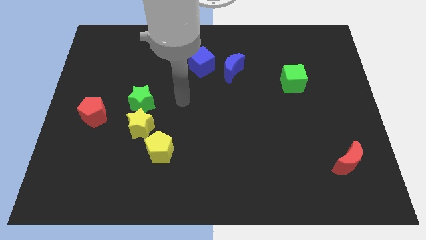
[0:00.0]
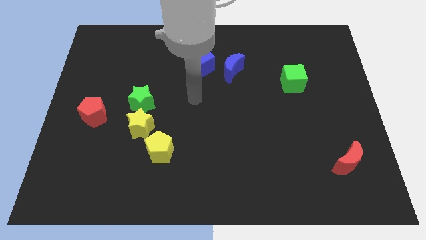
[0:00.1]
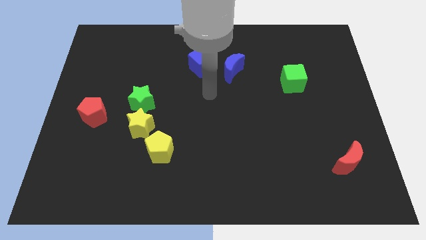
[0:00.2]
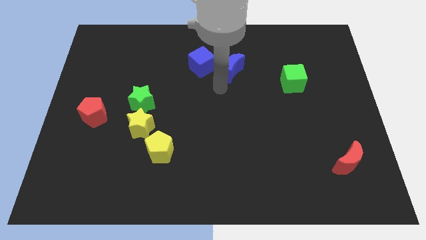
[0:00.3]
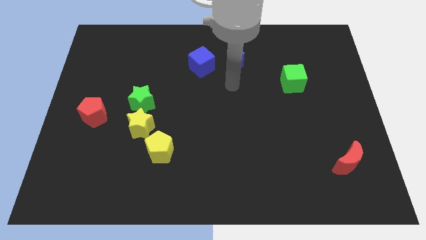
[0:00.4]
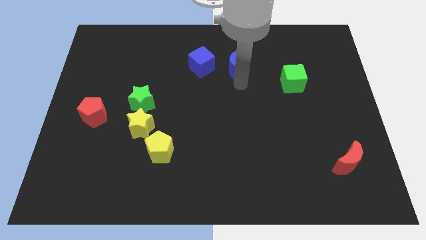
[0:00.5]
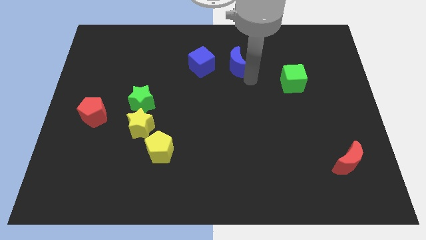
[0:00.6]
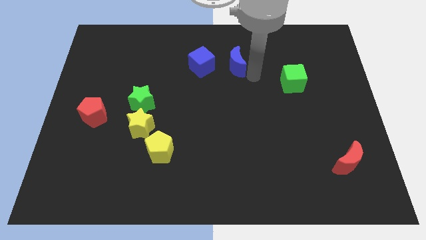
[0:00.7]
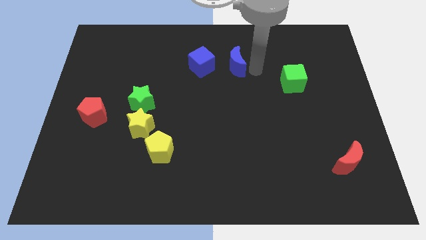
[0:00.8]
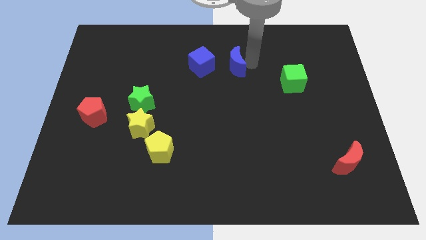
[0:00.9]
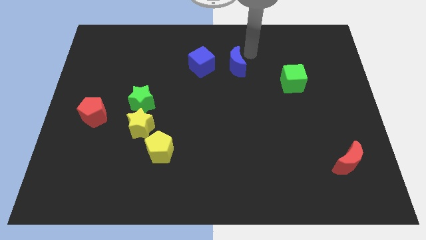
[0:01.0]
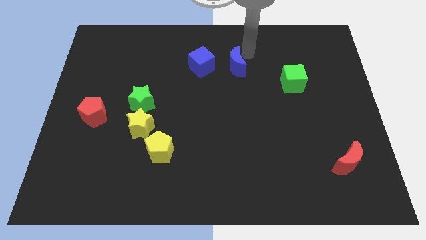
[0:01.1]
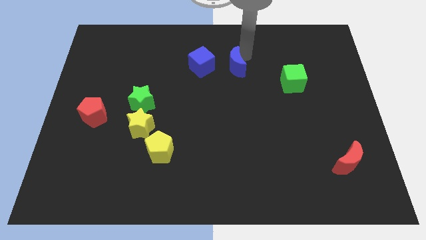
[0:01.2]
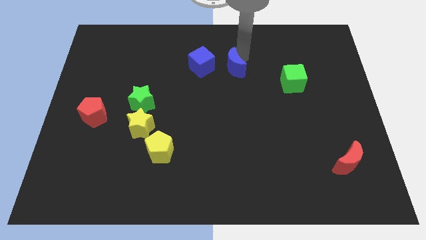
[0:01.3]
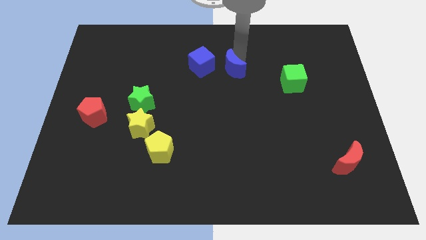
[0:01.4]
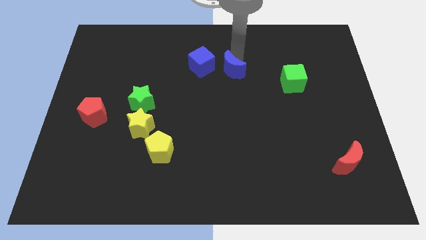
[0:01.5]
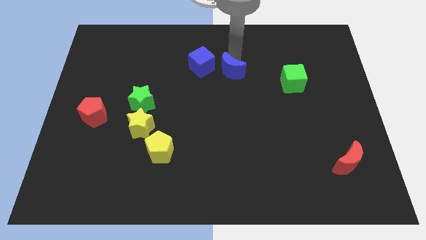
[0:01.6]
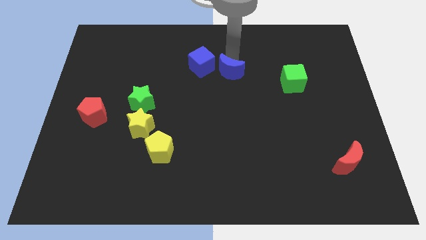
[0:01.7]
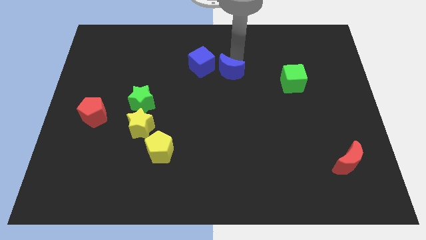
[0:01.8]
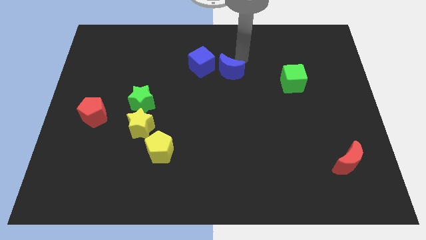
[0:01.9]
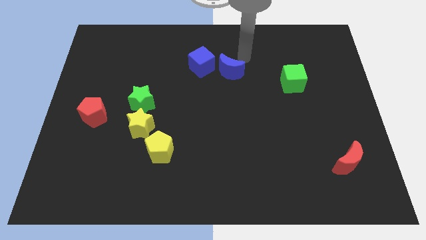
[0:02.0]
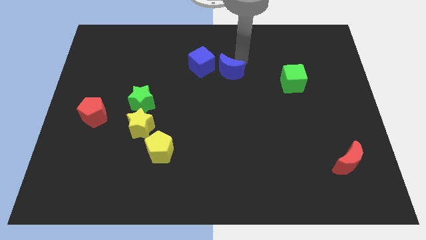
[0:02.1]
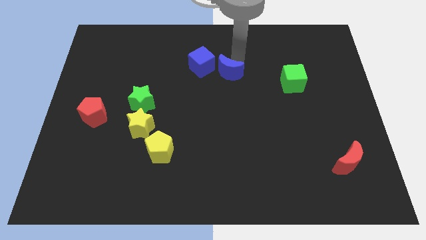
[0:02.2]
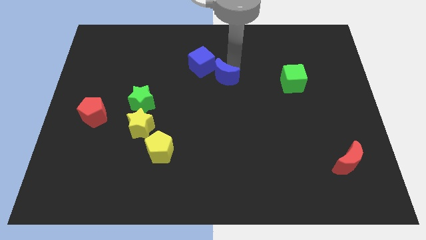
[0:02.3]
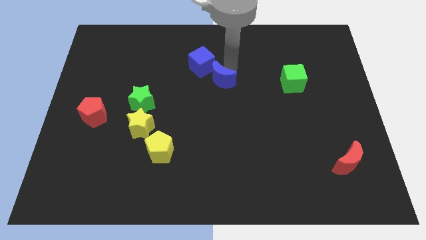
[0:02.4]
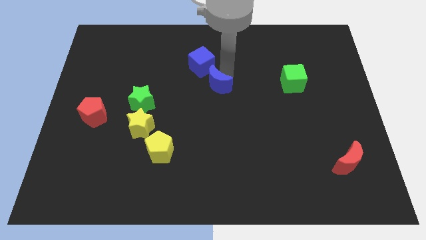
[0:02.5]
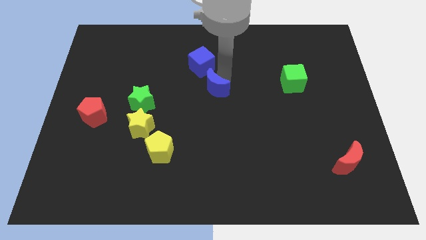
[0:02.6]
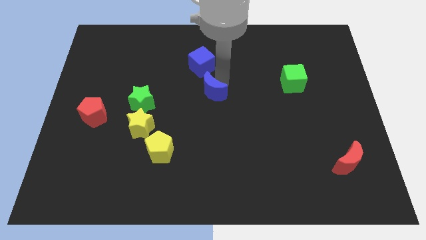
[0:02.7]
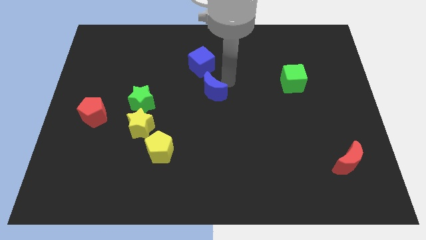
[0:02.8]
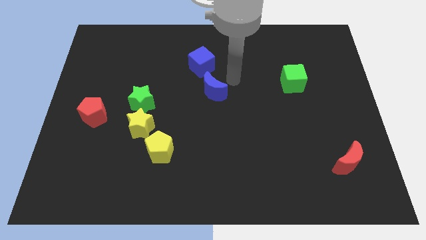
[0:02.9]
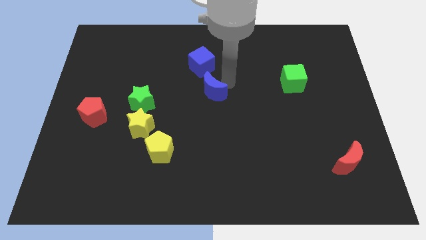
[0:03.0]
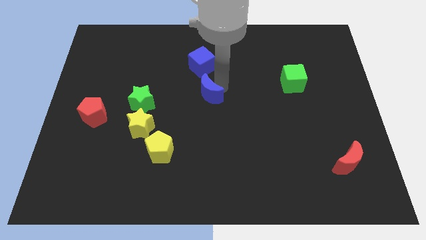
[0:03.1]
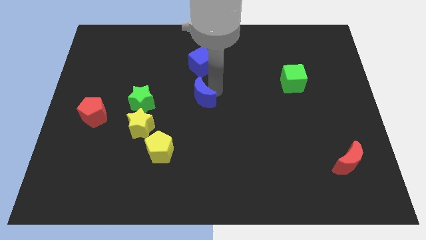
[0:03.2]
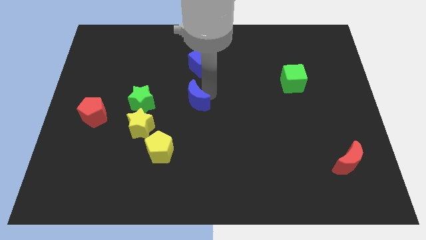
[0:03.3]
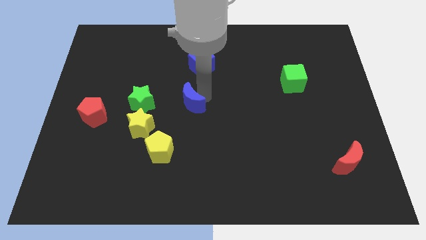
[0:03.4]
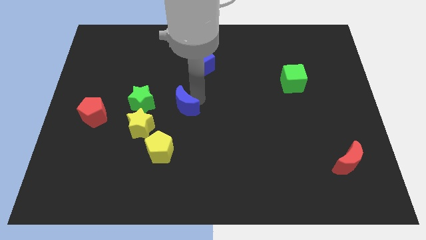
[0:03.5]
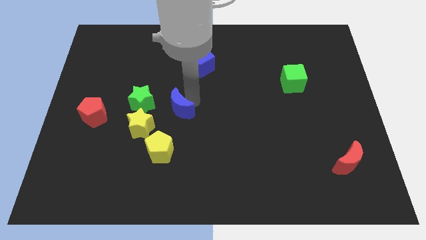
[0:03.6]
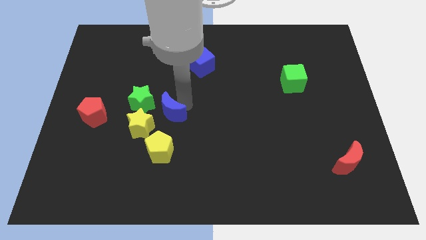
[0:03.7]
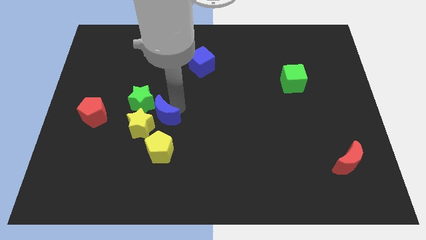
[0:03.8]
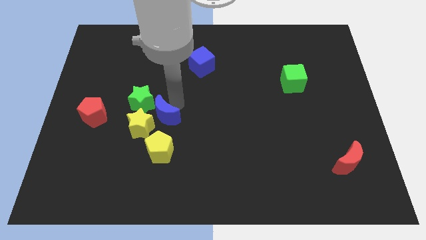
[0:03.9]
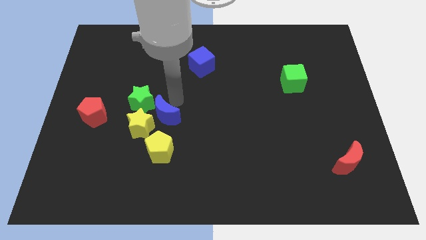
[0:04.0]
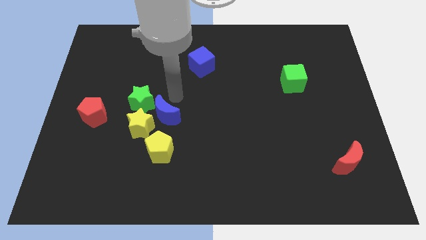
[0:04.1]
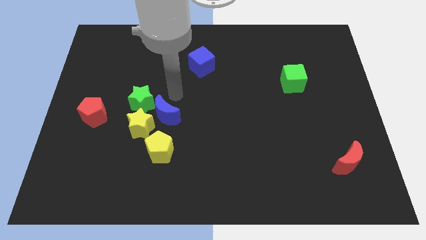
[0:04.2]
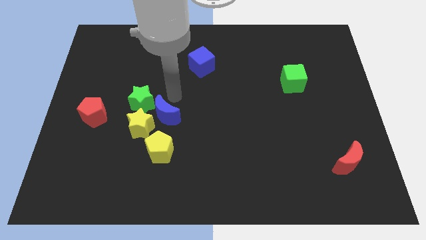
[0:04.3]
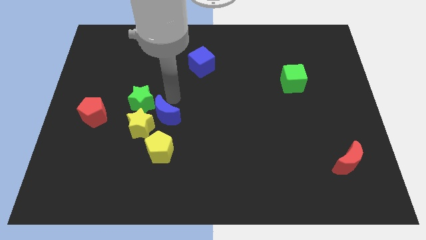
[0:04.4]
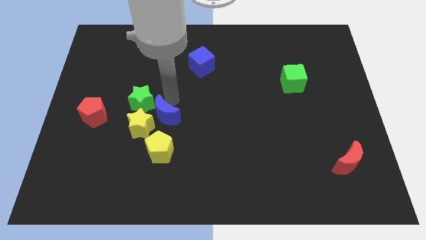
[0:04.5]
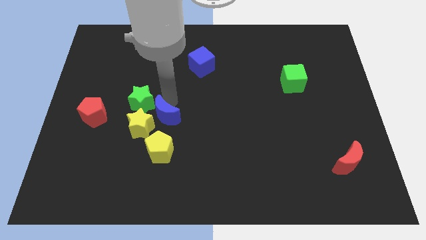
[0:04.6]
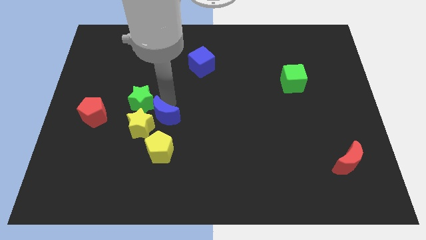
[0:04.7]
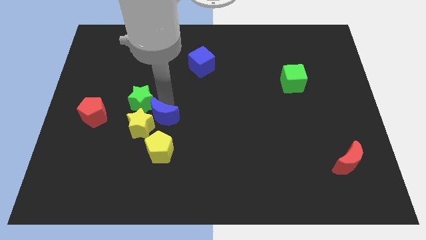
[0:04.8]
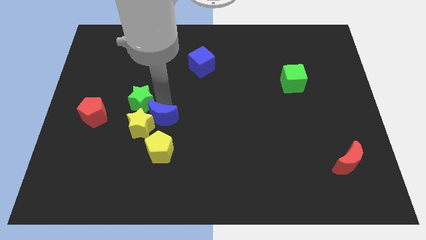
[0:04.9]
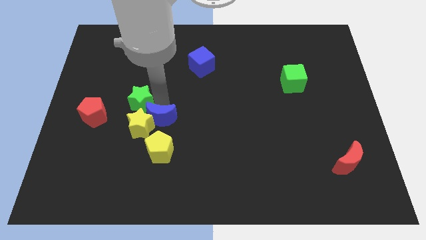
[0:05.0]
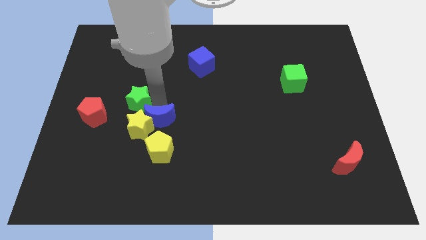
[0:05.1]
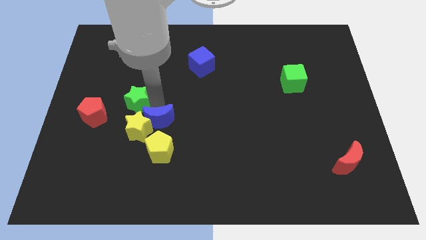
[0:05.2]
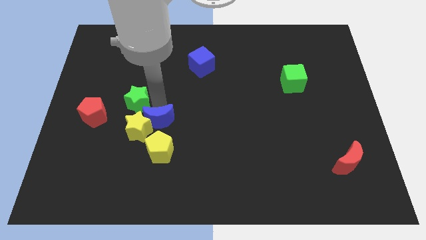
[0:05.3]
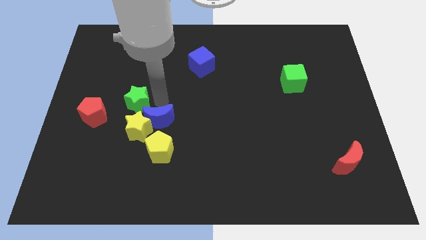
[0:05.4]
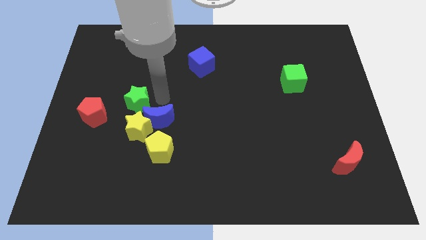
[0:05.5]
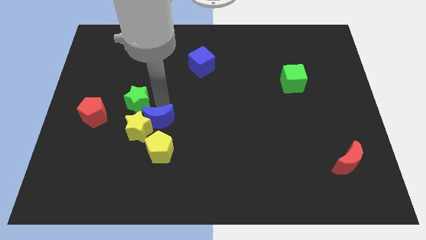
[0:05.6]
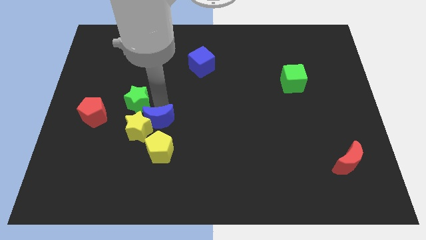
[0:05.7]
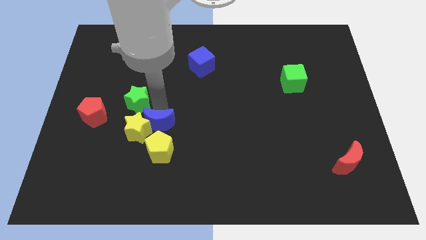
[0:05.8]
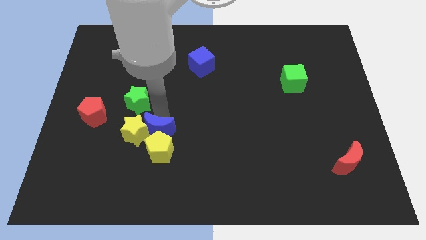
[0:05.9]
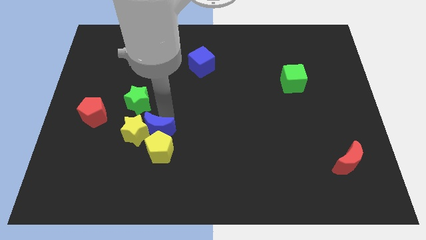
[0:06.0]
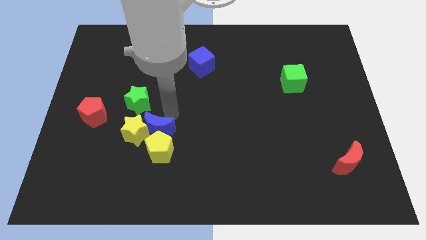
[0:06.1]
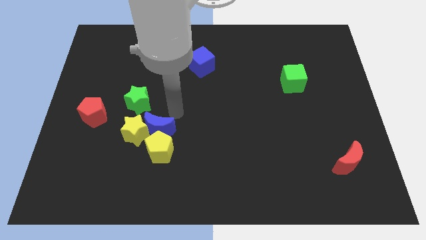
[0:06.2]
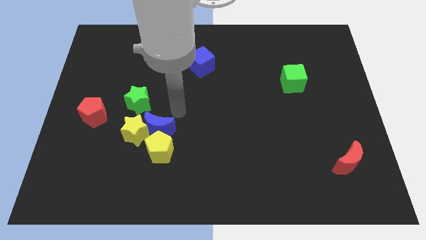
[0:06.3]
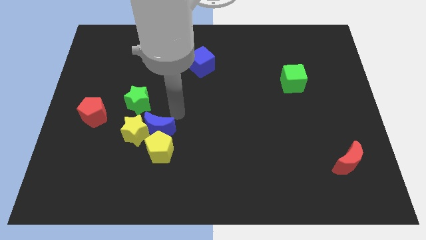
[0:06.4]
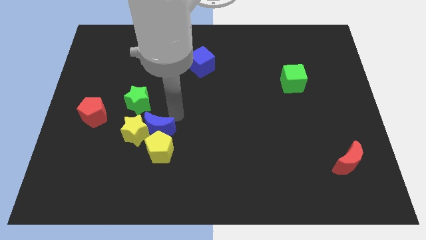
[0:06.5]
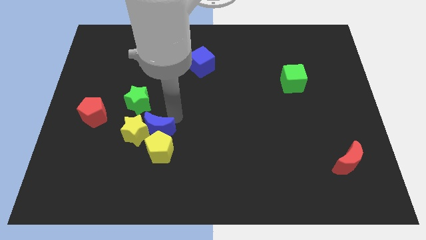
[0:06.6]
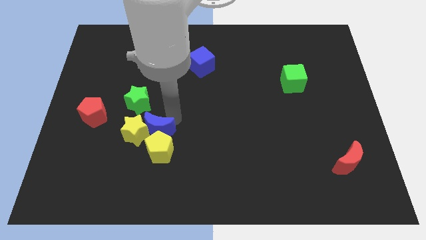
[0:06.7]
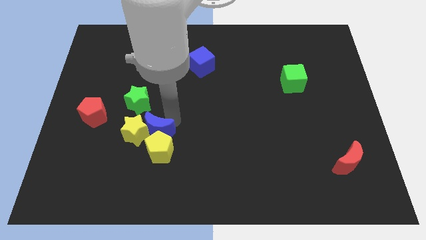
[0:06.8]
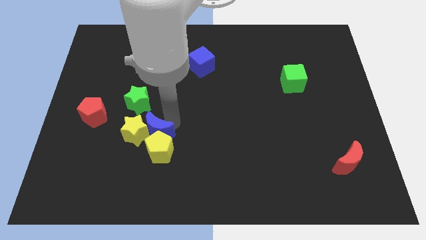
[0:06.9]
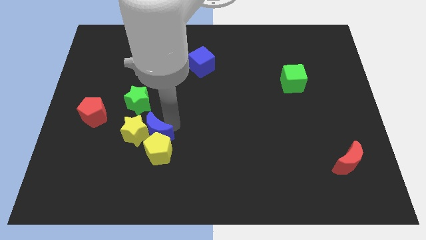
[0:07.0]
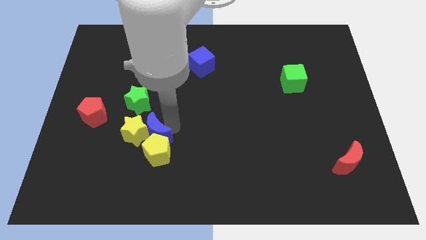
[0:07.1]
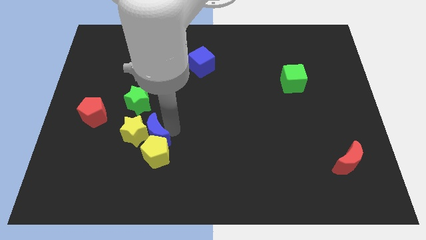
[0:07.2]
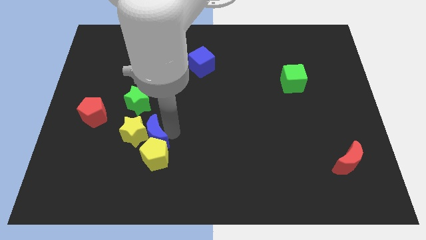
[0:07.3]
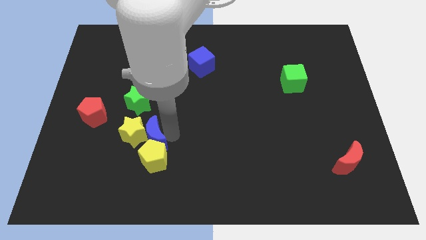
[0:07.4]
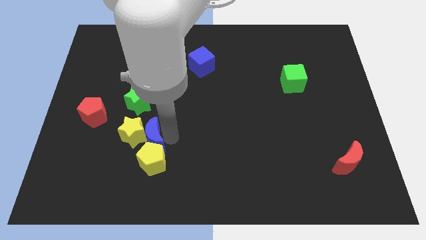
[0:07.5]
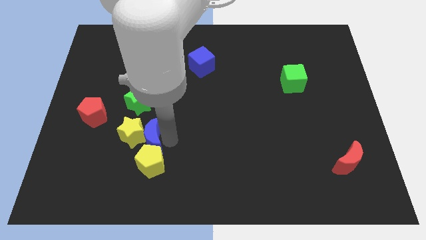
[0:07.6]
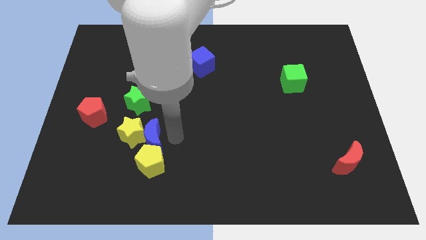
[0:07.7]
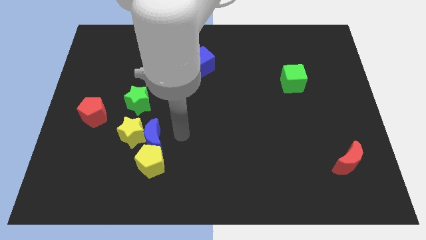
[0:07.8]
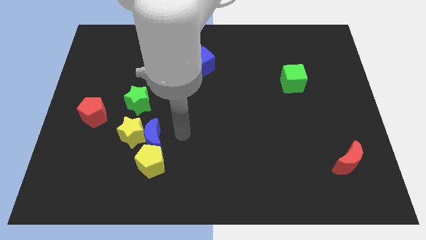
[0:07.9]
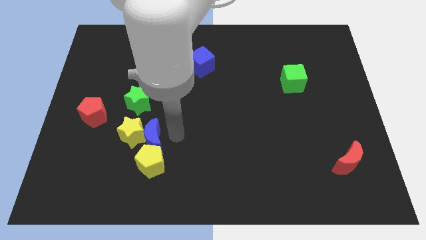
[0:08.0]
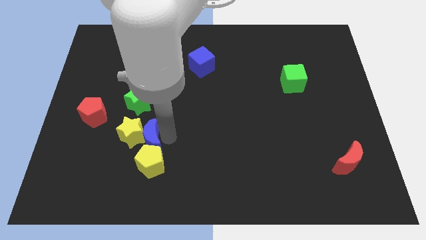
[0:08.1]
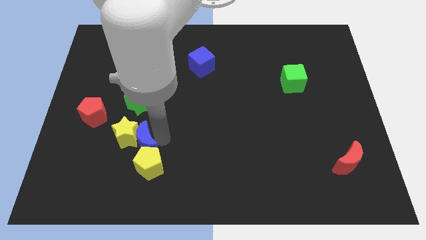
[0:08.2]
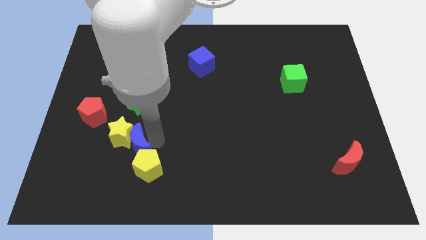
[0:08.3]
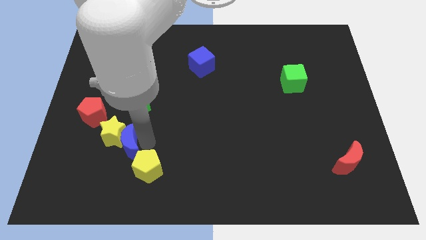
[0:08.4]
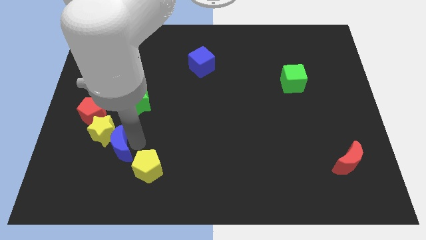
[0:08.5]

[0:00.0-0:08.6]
slide the blue moon just left of the yellow pentagon
